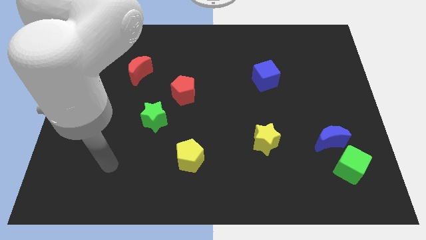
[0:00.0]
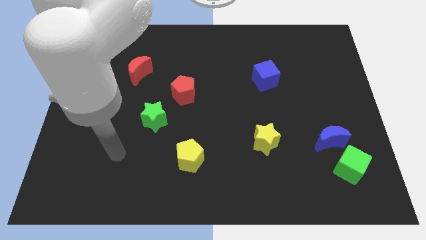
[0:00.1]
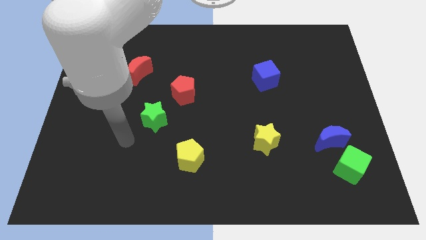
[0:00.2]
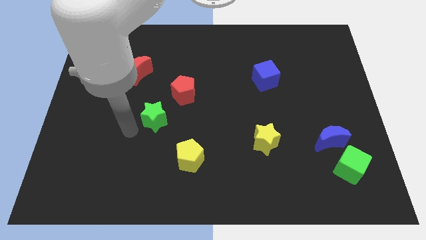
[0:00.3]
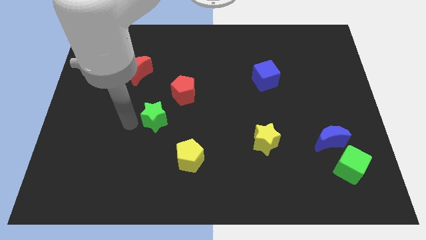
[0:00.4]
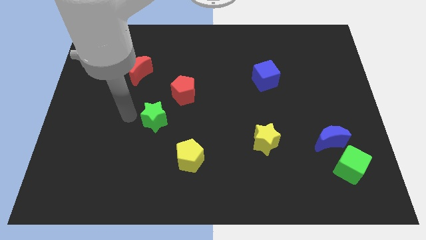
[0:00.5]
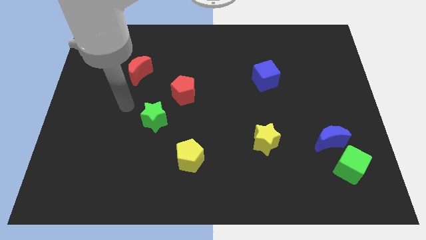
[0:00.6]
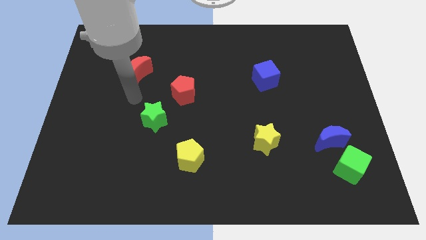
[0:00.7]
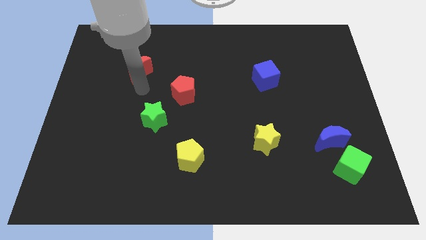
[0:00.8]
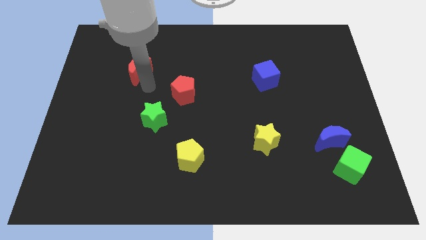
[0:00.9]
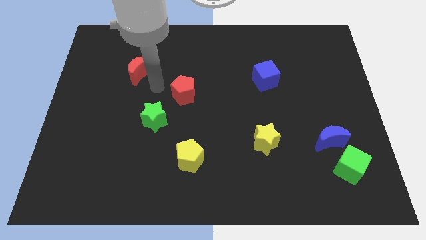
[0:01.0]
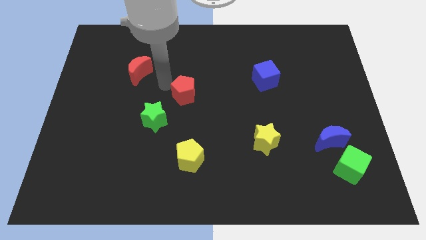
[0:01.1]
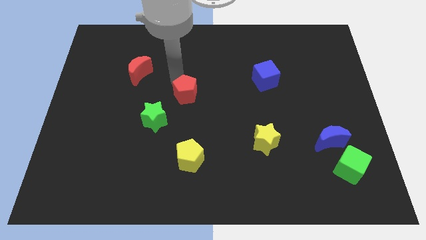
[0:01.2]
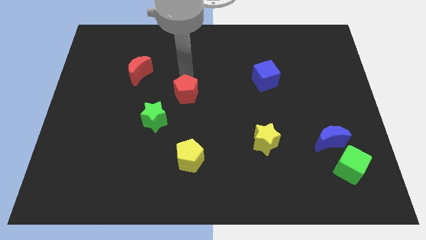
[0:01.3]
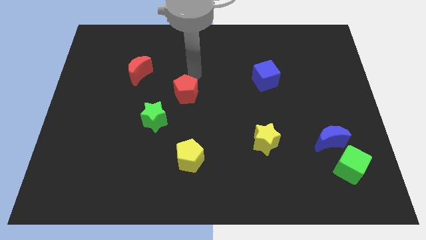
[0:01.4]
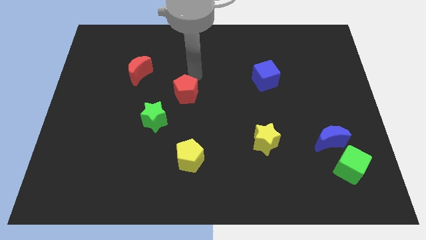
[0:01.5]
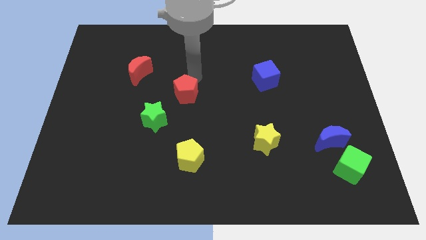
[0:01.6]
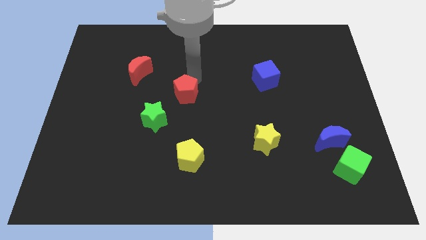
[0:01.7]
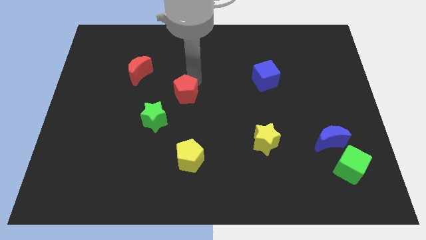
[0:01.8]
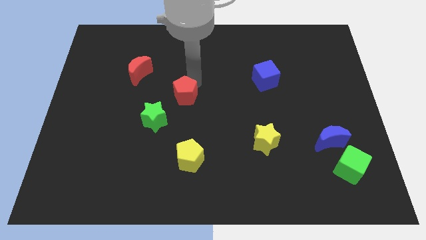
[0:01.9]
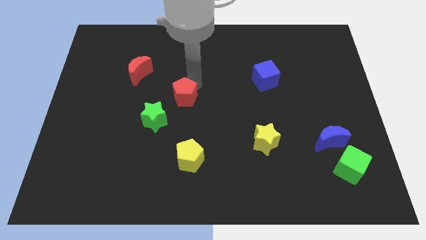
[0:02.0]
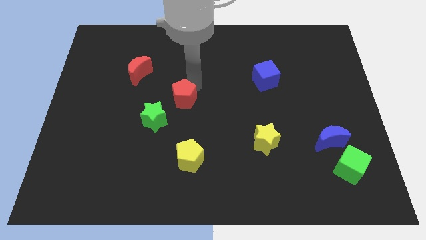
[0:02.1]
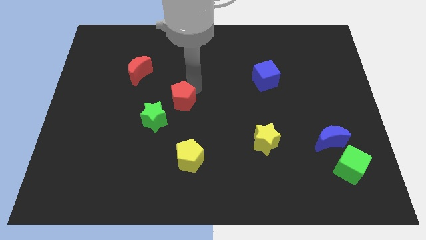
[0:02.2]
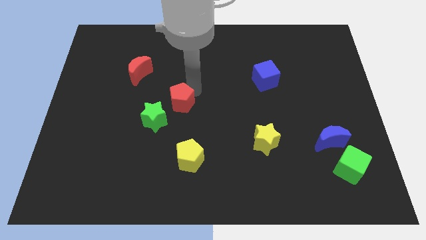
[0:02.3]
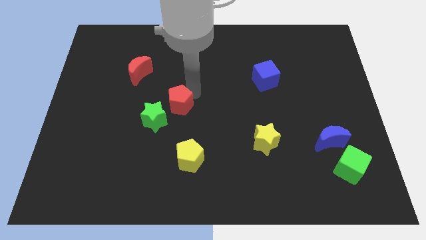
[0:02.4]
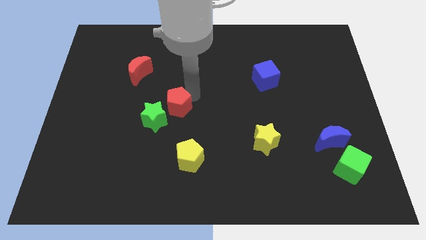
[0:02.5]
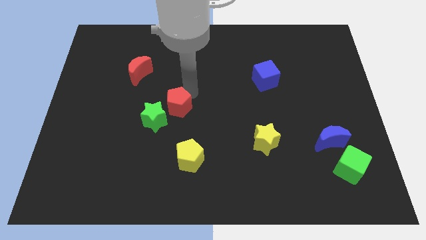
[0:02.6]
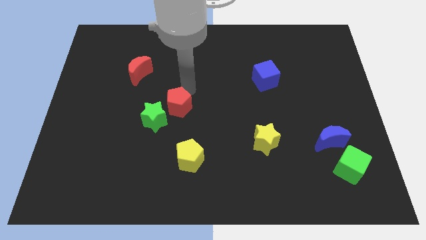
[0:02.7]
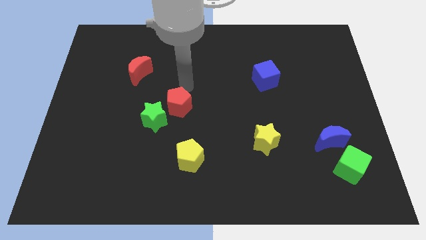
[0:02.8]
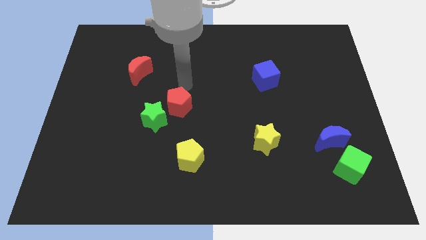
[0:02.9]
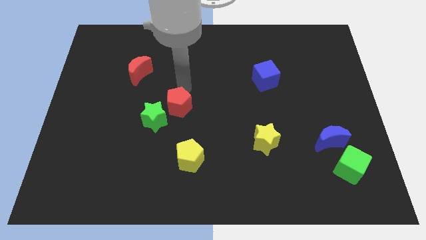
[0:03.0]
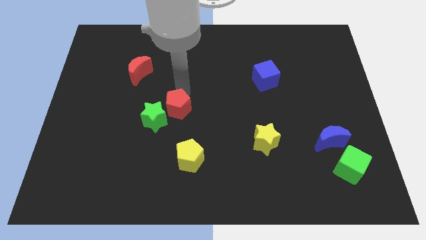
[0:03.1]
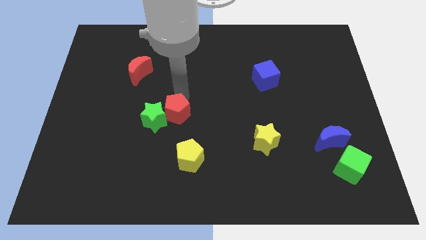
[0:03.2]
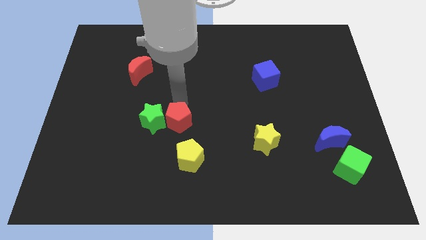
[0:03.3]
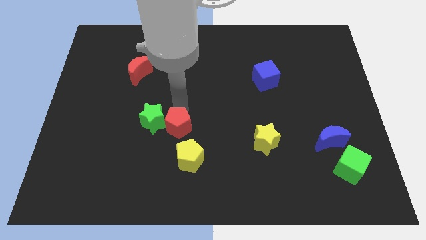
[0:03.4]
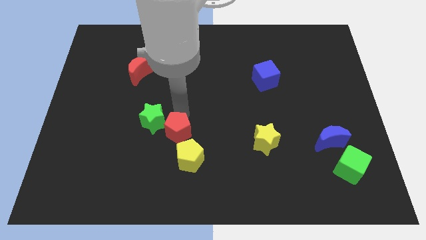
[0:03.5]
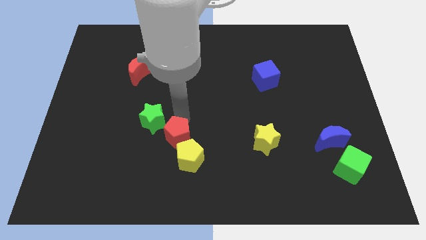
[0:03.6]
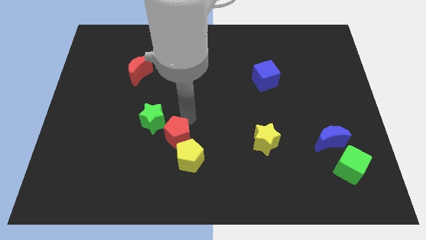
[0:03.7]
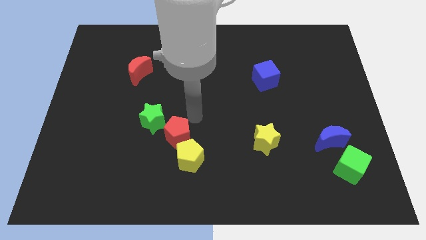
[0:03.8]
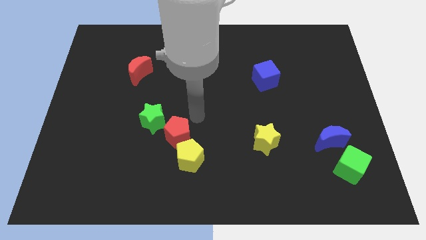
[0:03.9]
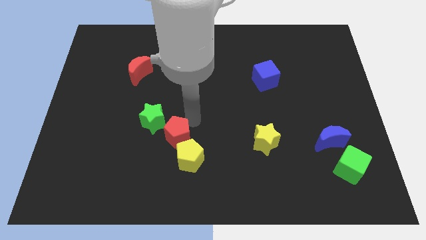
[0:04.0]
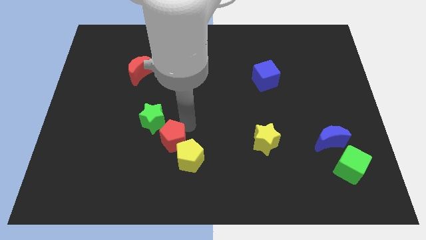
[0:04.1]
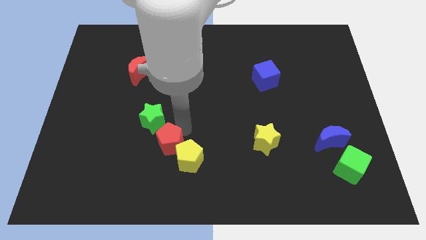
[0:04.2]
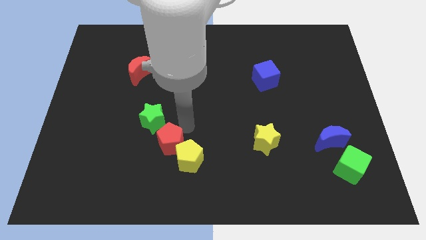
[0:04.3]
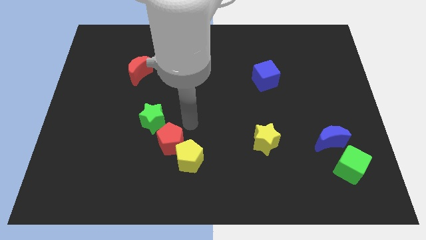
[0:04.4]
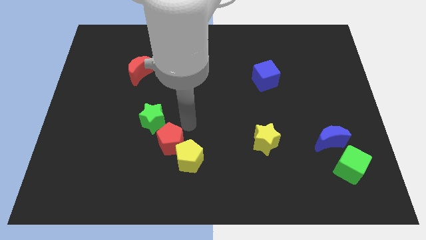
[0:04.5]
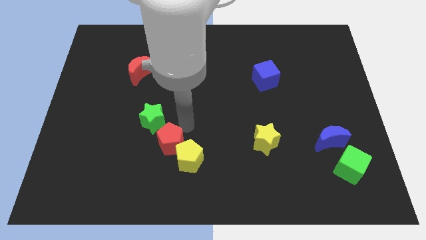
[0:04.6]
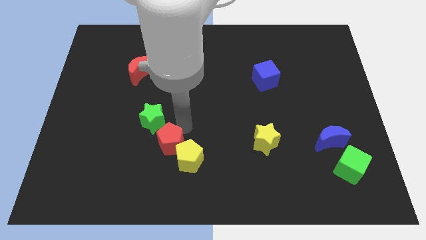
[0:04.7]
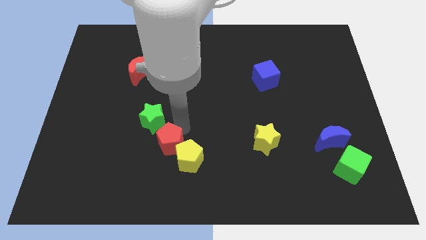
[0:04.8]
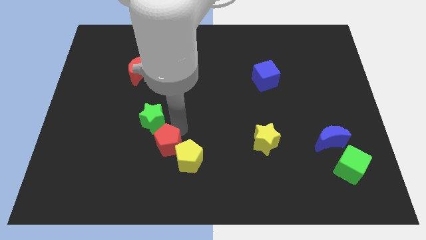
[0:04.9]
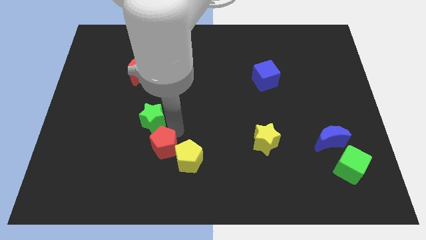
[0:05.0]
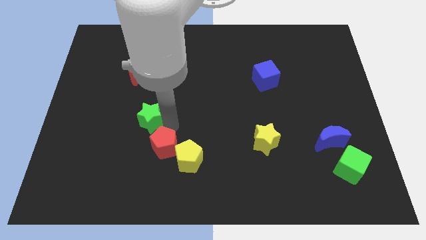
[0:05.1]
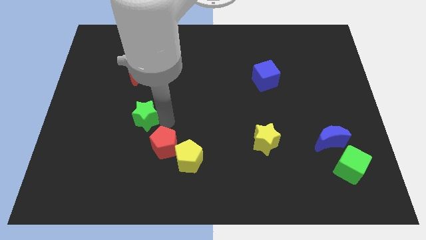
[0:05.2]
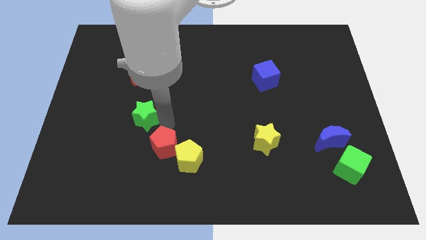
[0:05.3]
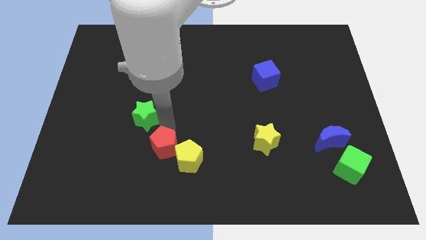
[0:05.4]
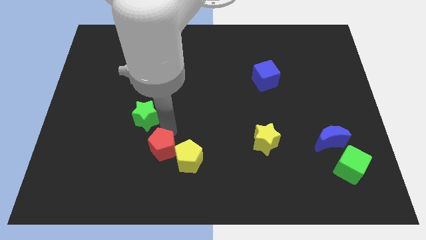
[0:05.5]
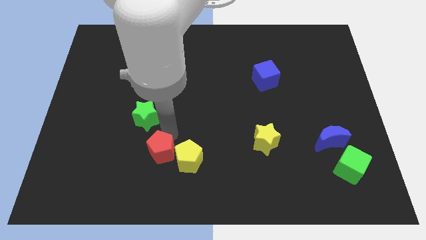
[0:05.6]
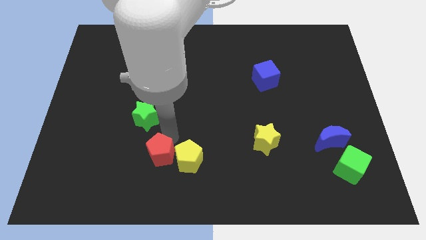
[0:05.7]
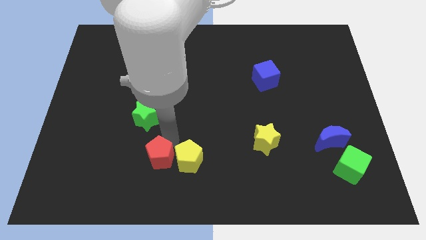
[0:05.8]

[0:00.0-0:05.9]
slide the red pentagon diagonally down and to the left of the yellow pentagon
